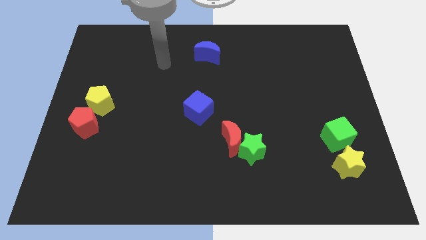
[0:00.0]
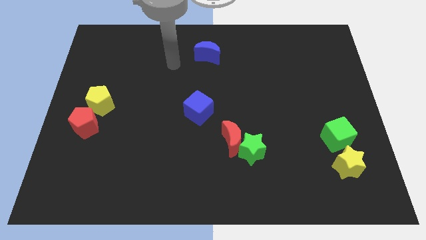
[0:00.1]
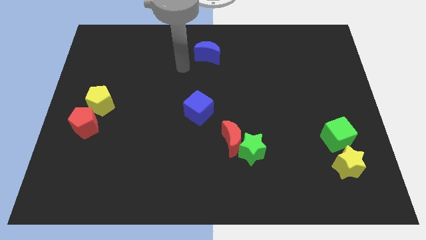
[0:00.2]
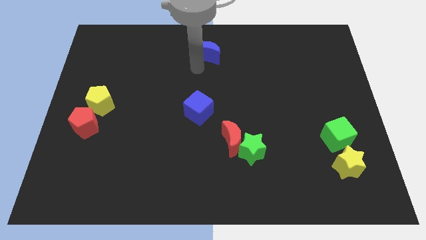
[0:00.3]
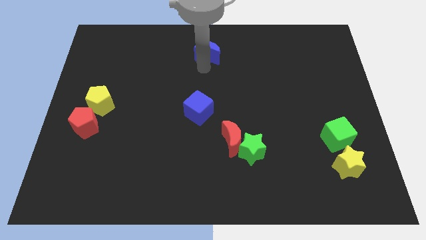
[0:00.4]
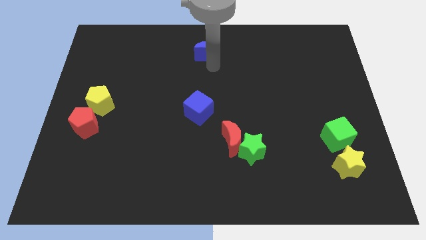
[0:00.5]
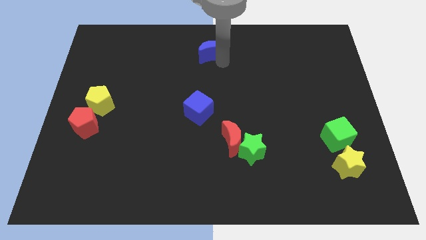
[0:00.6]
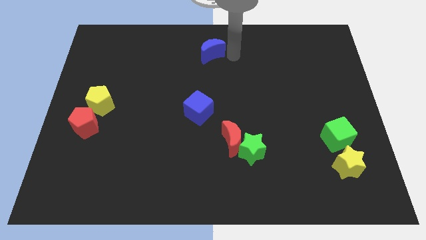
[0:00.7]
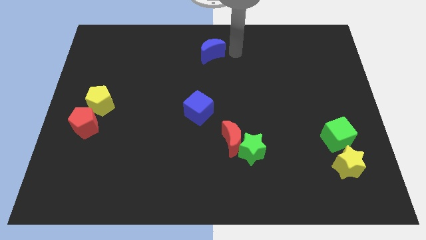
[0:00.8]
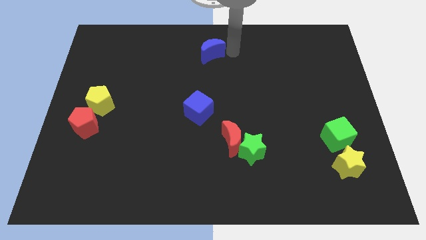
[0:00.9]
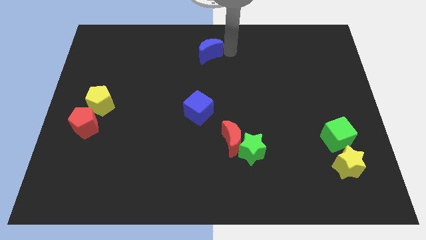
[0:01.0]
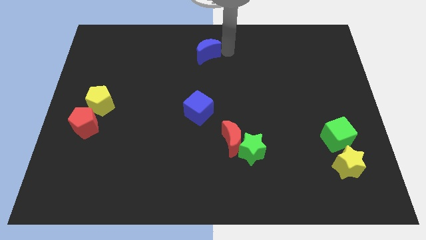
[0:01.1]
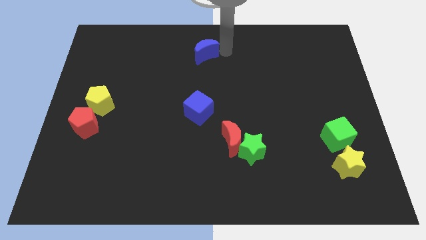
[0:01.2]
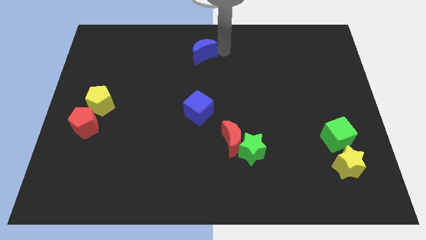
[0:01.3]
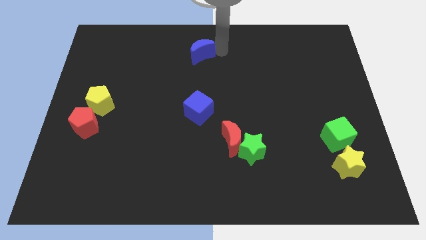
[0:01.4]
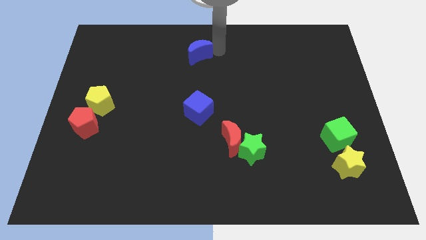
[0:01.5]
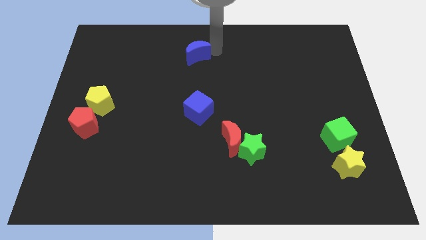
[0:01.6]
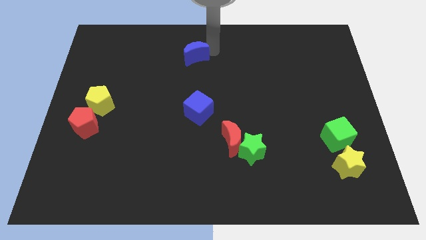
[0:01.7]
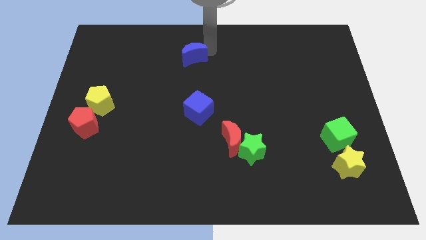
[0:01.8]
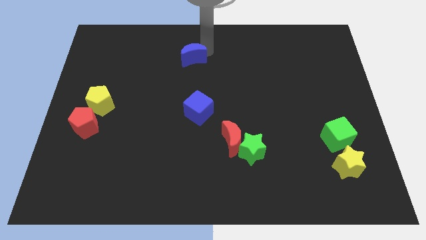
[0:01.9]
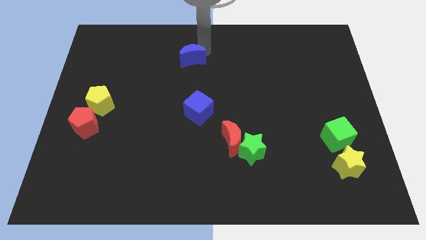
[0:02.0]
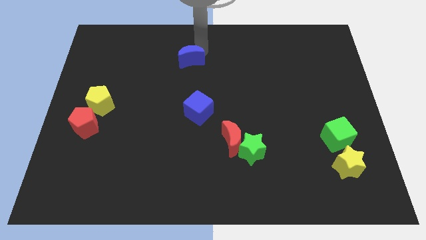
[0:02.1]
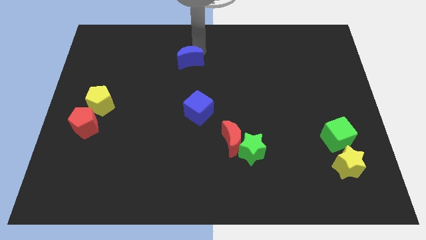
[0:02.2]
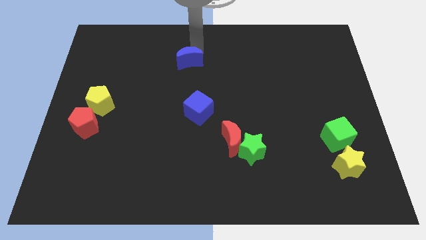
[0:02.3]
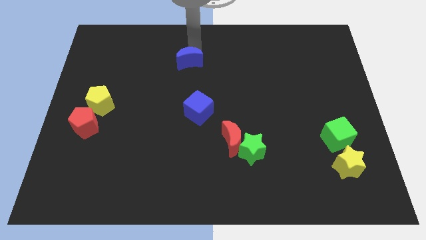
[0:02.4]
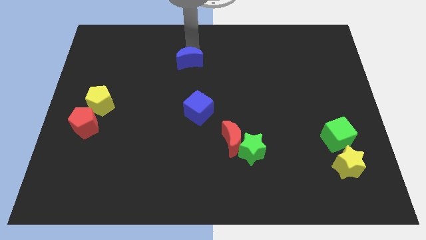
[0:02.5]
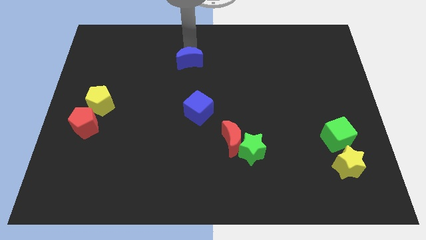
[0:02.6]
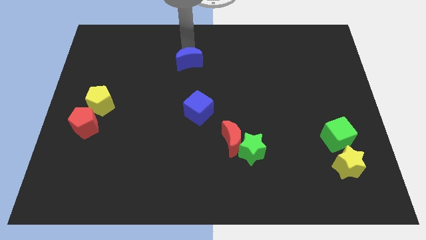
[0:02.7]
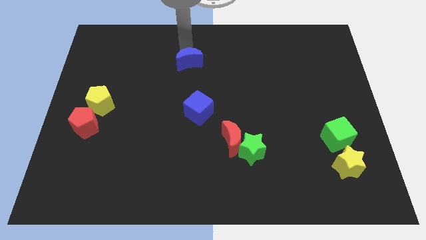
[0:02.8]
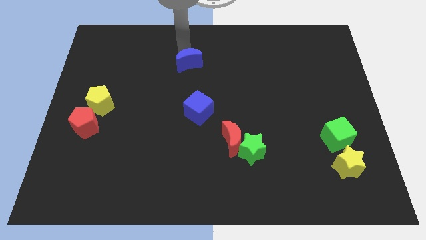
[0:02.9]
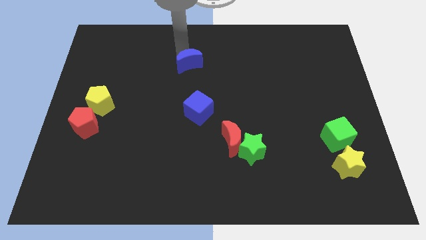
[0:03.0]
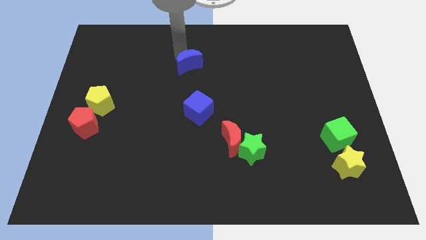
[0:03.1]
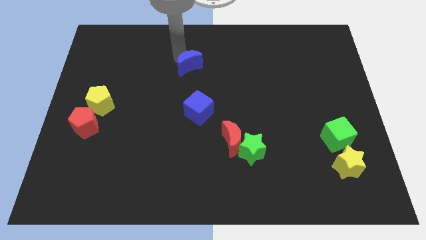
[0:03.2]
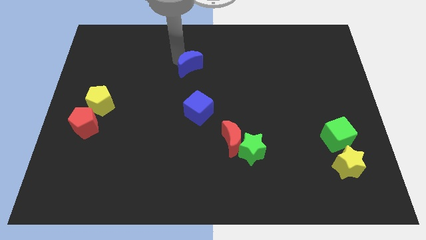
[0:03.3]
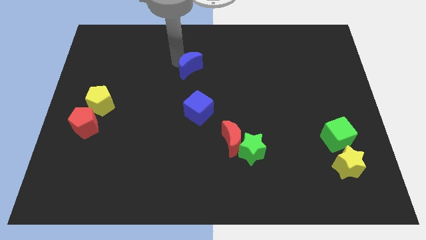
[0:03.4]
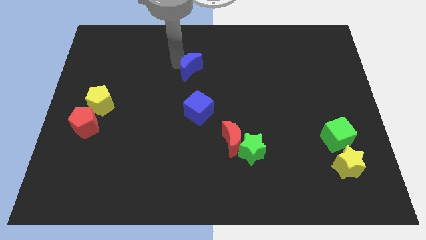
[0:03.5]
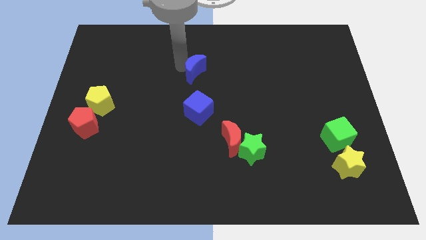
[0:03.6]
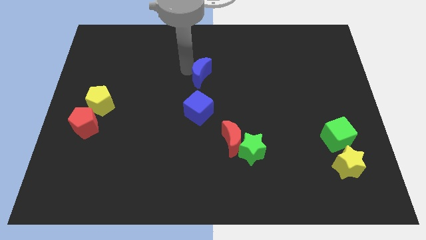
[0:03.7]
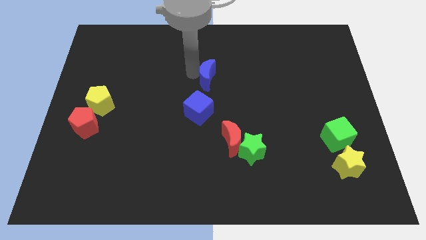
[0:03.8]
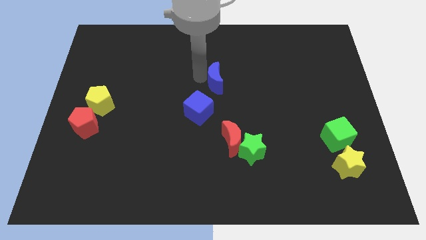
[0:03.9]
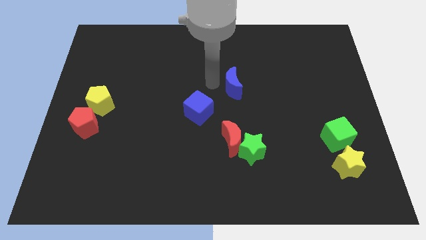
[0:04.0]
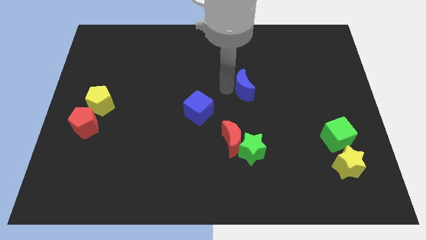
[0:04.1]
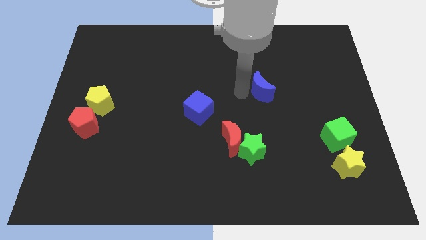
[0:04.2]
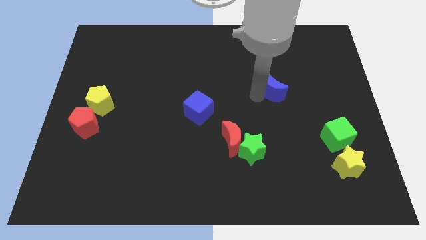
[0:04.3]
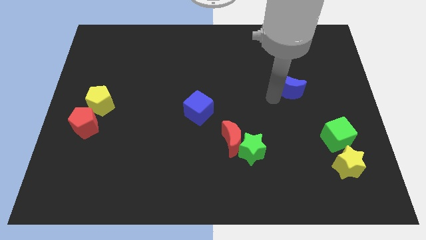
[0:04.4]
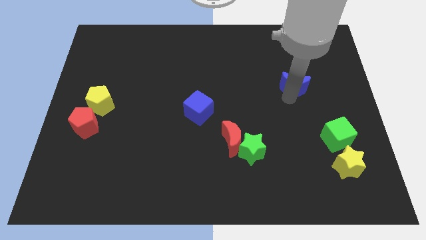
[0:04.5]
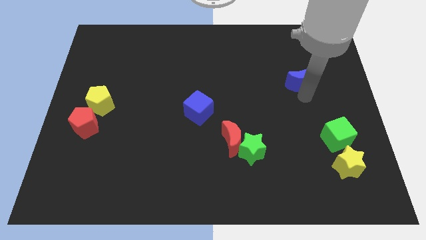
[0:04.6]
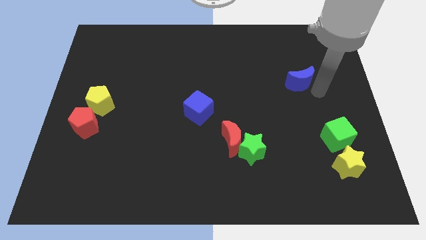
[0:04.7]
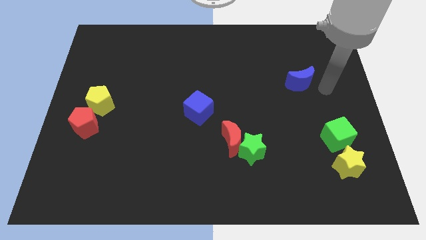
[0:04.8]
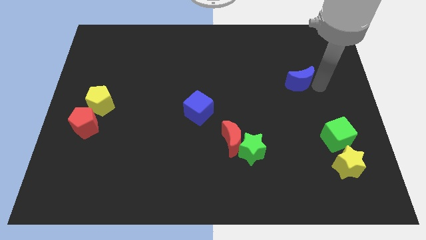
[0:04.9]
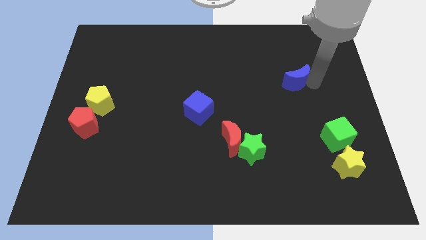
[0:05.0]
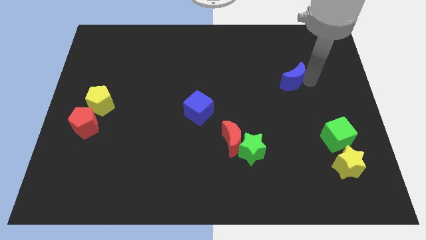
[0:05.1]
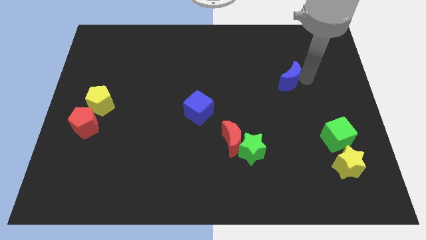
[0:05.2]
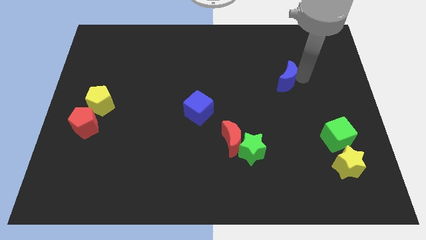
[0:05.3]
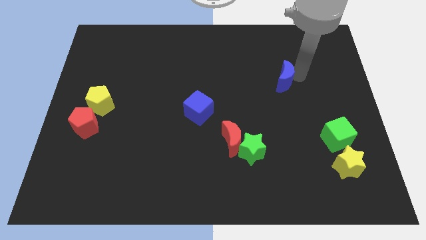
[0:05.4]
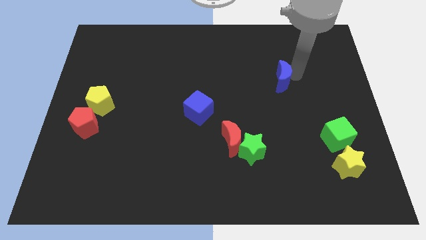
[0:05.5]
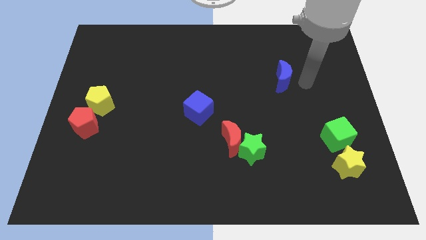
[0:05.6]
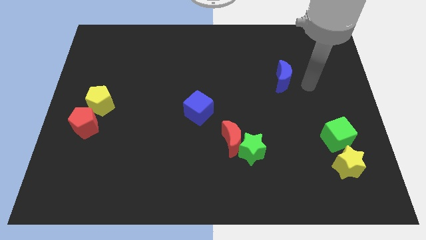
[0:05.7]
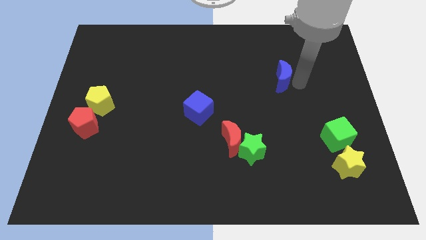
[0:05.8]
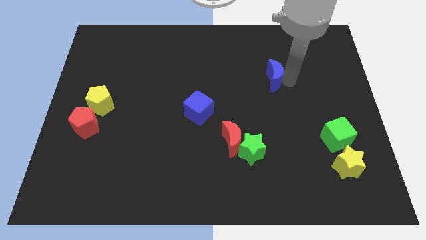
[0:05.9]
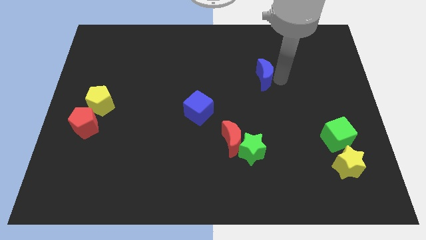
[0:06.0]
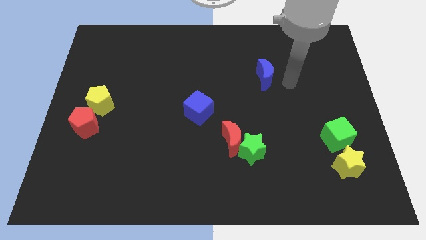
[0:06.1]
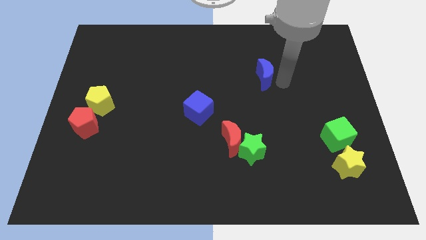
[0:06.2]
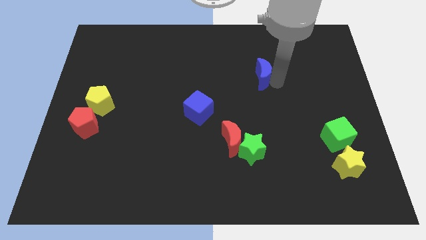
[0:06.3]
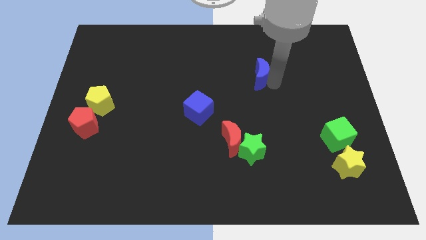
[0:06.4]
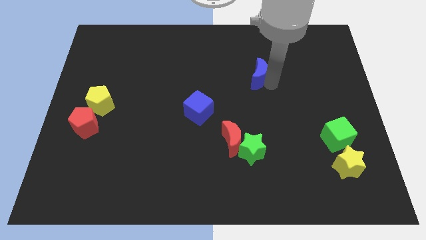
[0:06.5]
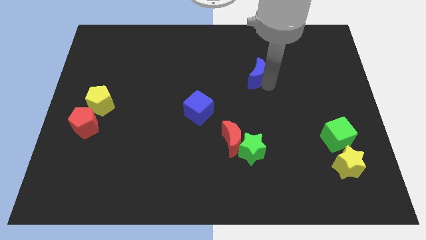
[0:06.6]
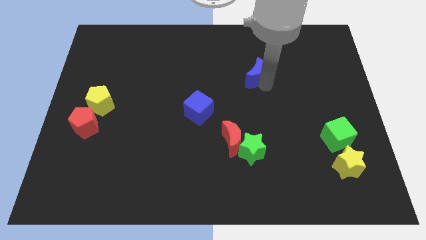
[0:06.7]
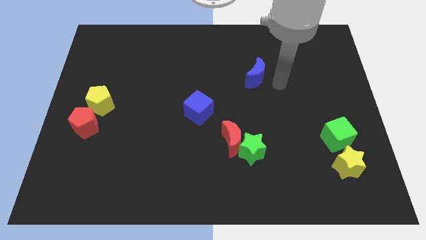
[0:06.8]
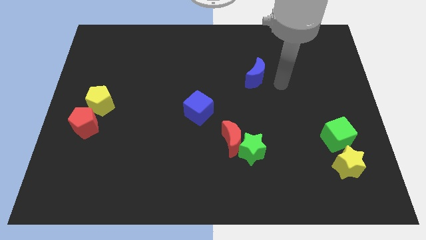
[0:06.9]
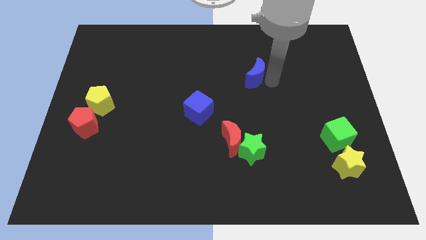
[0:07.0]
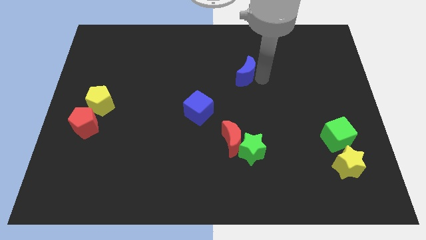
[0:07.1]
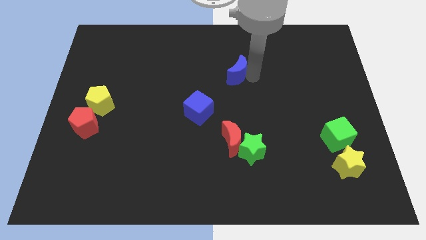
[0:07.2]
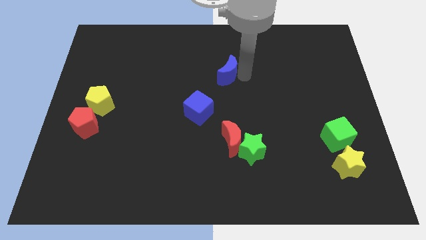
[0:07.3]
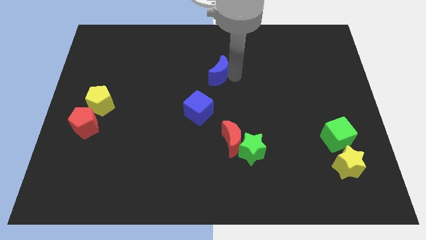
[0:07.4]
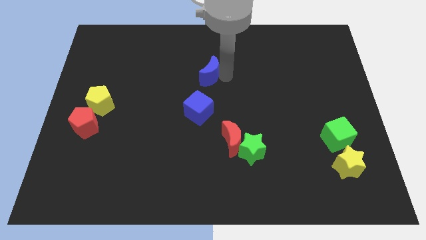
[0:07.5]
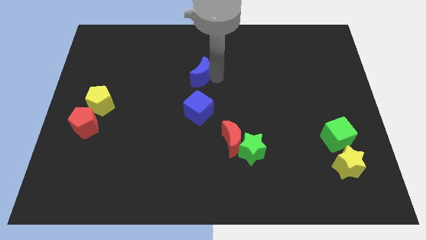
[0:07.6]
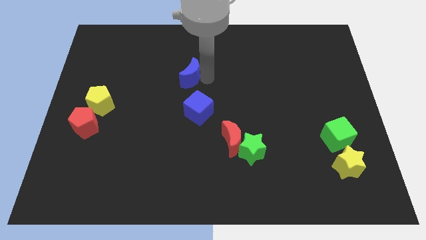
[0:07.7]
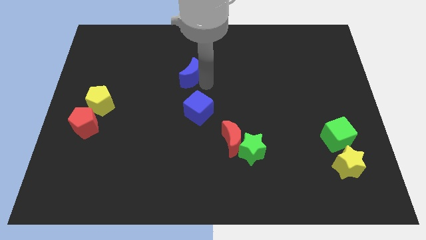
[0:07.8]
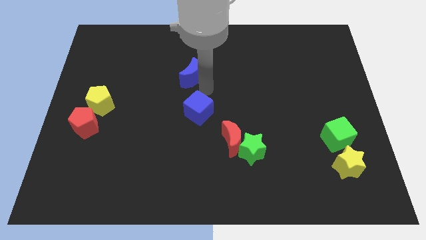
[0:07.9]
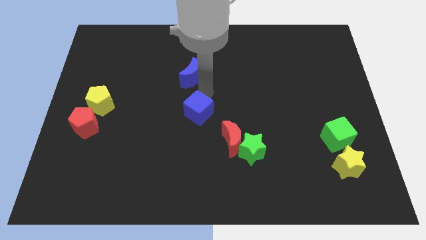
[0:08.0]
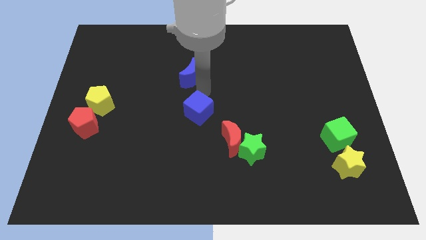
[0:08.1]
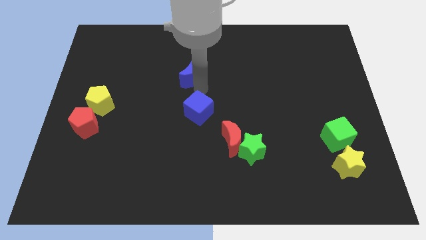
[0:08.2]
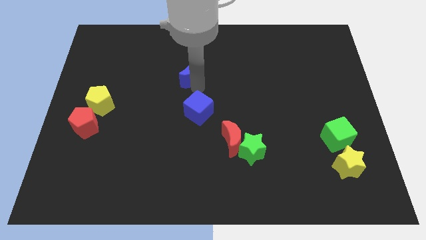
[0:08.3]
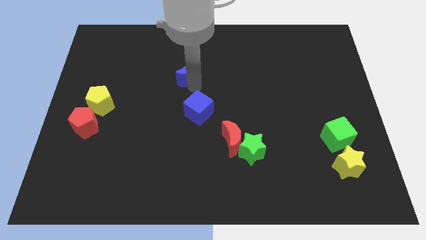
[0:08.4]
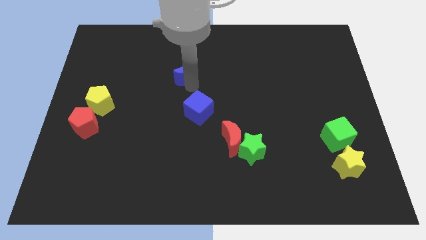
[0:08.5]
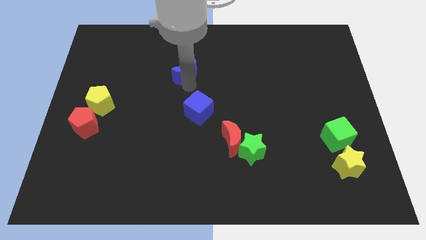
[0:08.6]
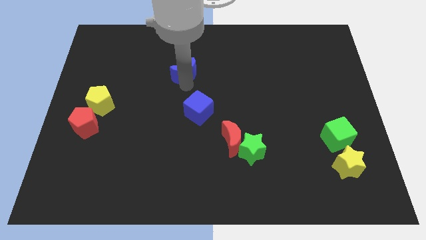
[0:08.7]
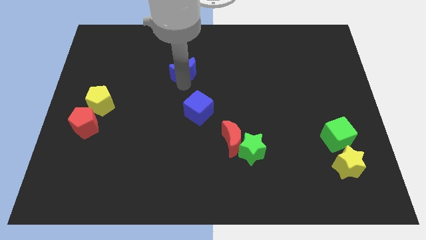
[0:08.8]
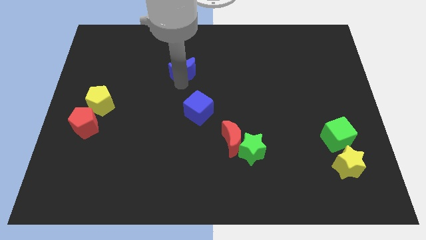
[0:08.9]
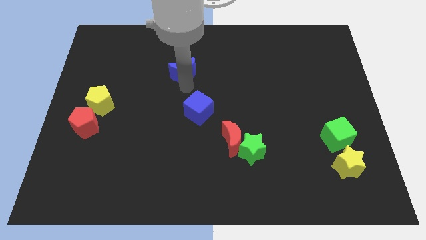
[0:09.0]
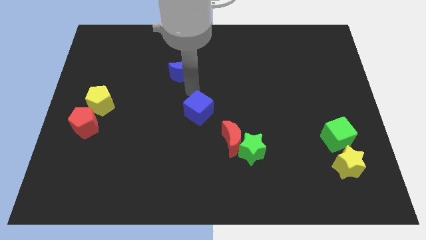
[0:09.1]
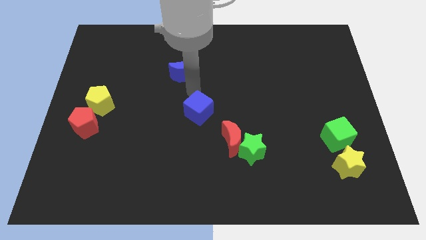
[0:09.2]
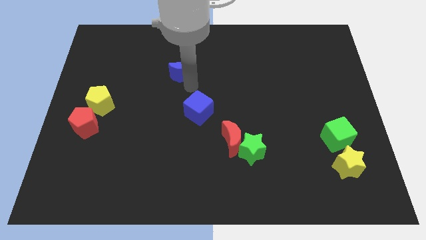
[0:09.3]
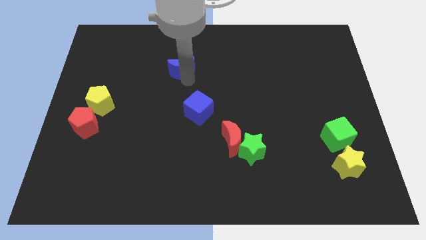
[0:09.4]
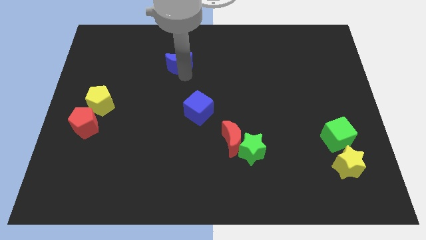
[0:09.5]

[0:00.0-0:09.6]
push the blue moon left somewhat
